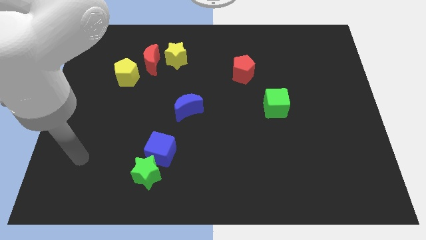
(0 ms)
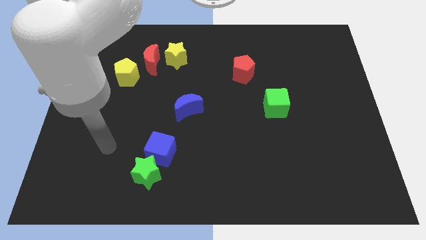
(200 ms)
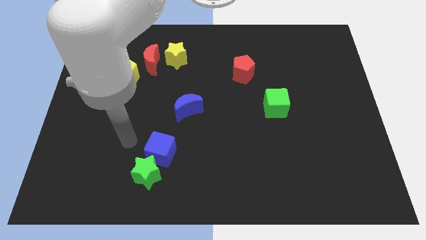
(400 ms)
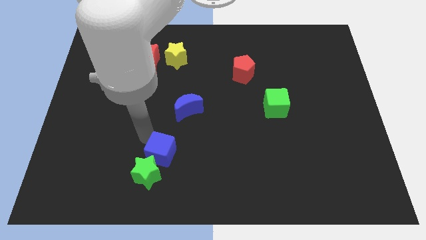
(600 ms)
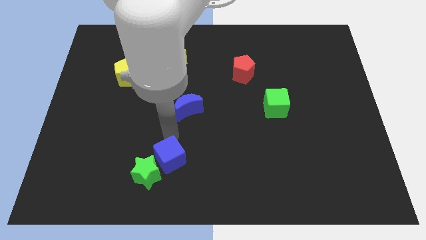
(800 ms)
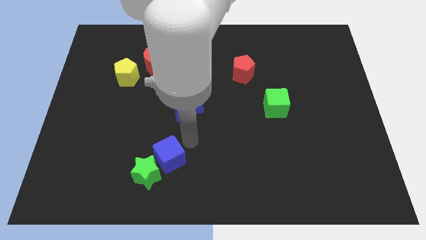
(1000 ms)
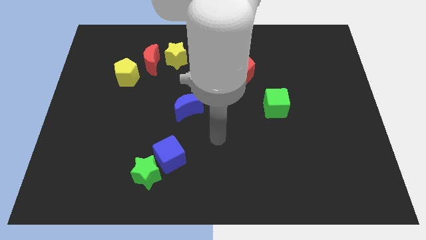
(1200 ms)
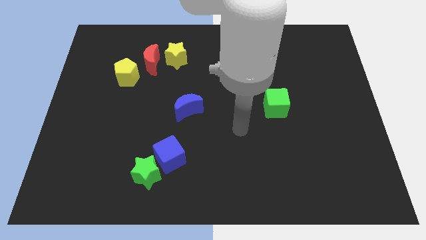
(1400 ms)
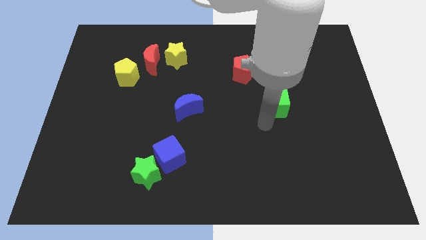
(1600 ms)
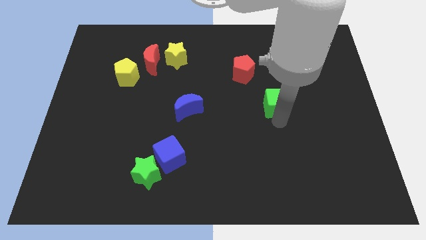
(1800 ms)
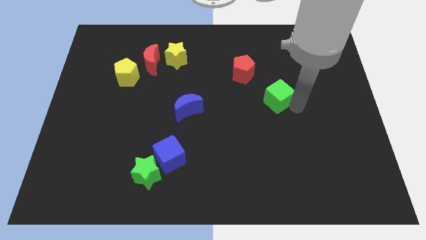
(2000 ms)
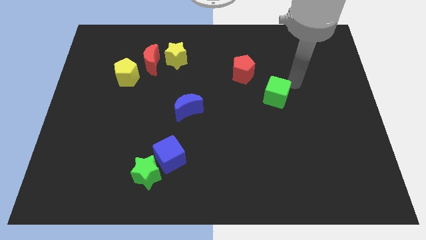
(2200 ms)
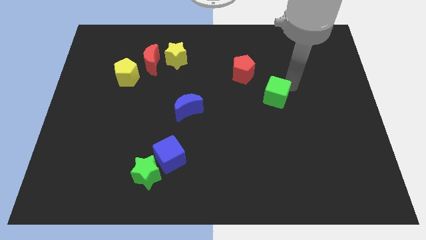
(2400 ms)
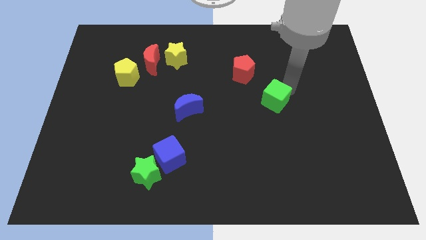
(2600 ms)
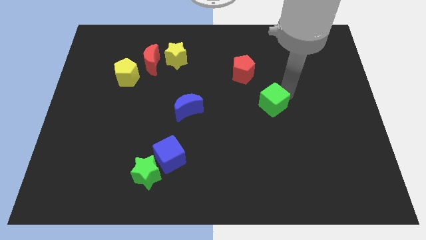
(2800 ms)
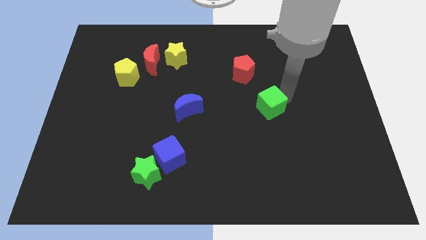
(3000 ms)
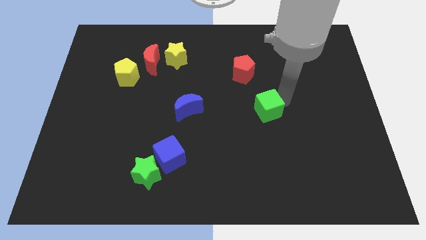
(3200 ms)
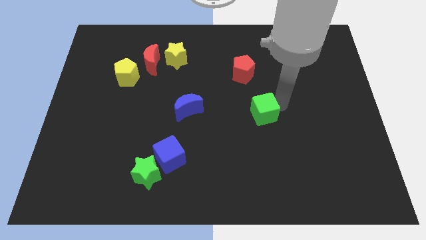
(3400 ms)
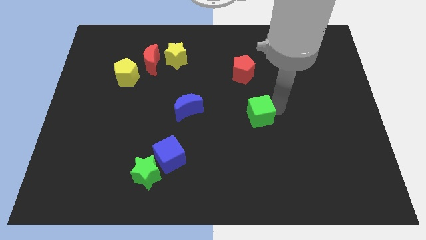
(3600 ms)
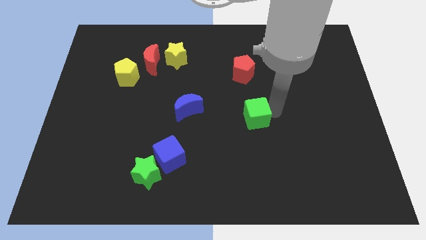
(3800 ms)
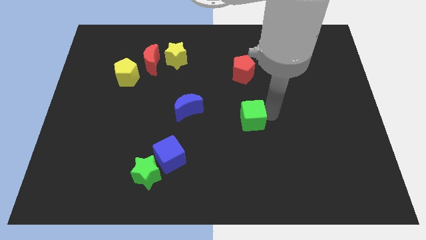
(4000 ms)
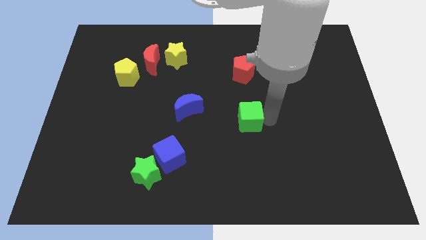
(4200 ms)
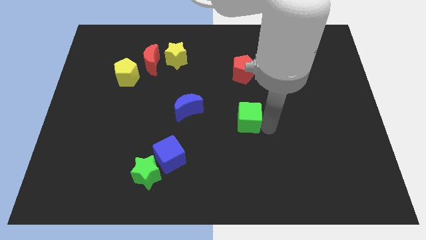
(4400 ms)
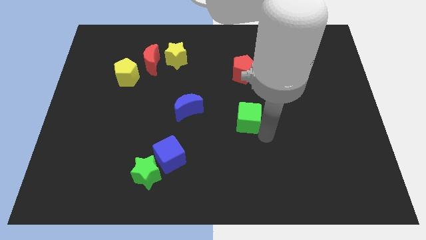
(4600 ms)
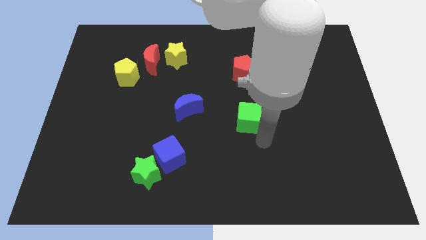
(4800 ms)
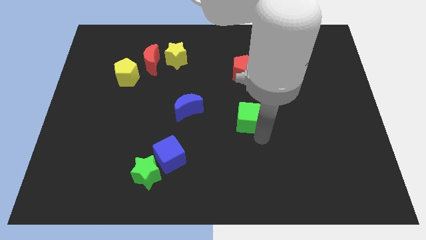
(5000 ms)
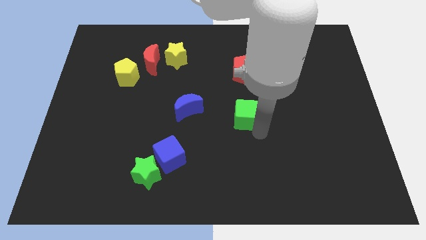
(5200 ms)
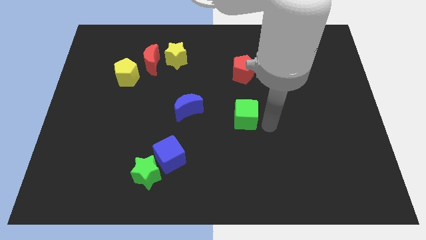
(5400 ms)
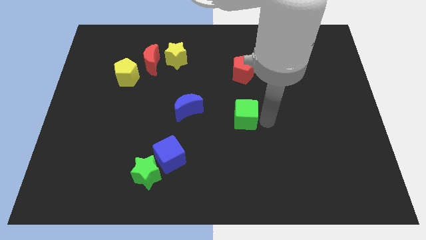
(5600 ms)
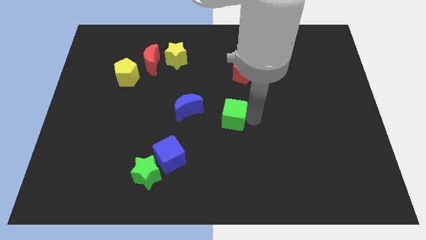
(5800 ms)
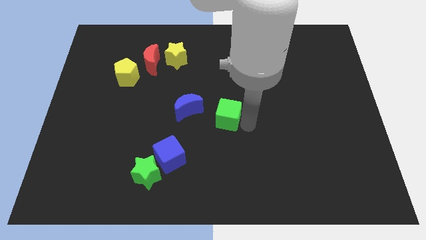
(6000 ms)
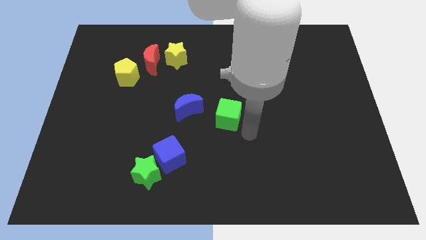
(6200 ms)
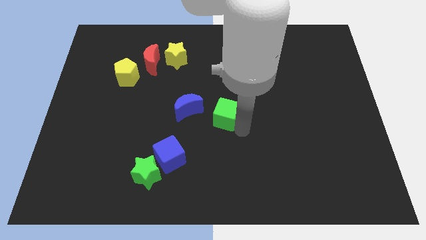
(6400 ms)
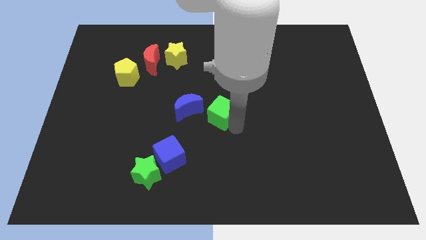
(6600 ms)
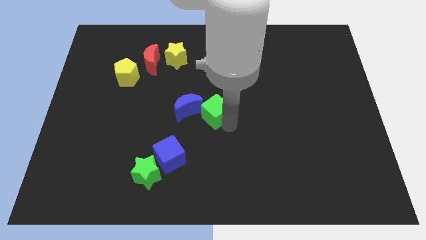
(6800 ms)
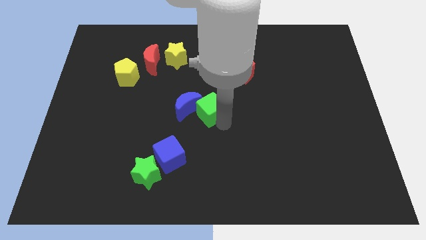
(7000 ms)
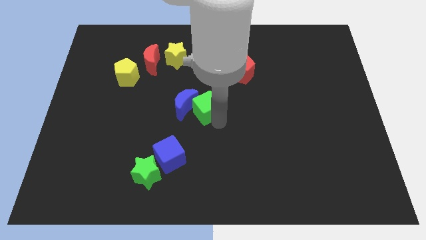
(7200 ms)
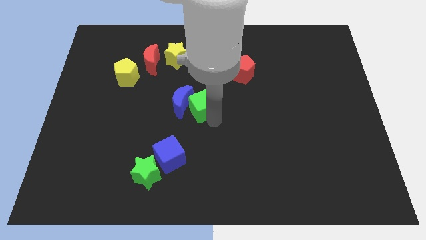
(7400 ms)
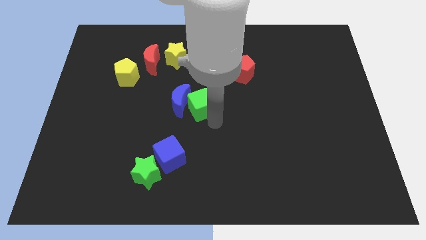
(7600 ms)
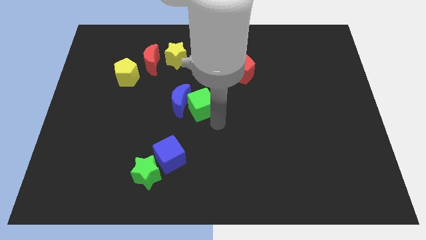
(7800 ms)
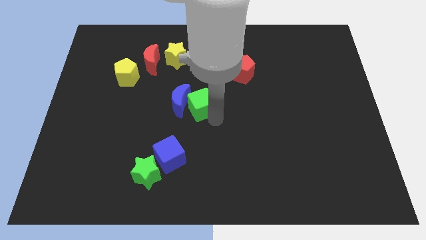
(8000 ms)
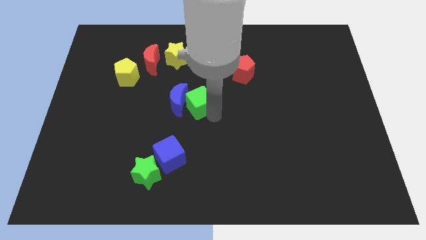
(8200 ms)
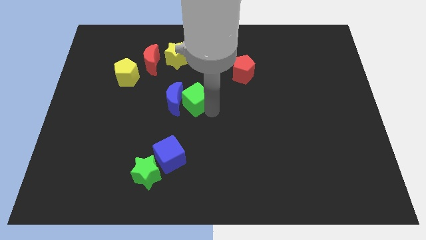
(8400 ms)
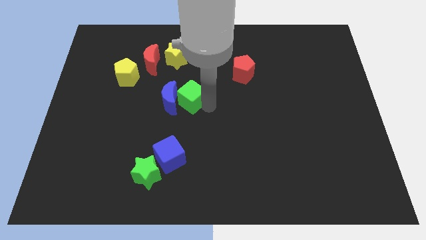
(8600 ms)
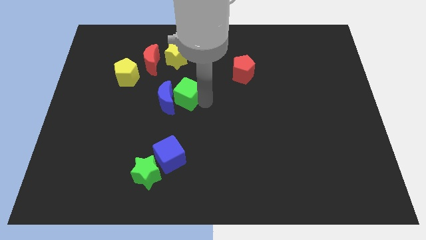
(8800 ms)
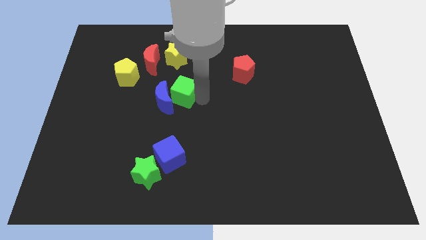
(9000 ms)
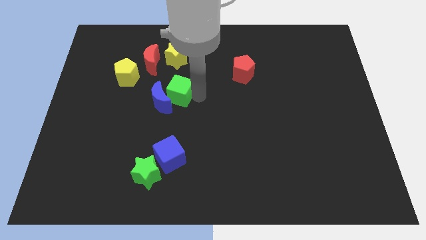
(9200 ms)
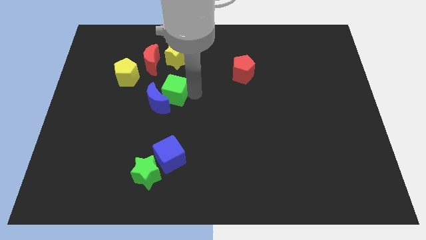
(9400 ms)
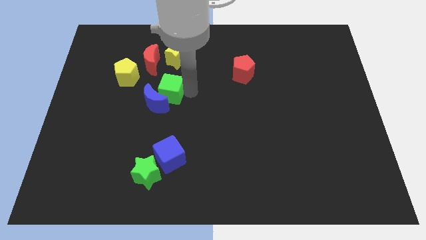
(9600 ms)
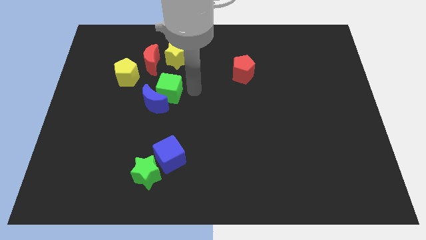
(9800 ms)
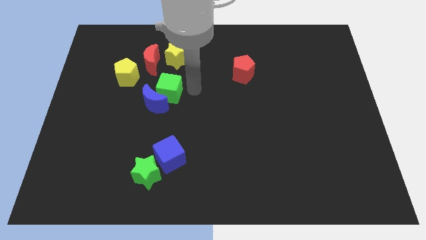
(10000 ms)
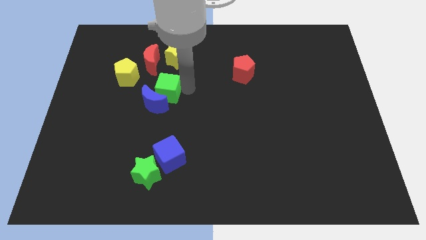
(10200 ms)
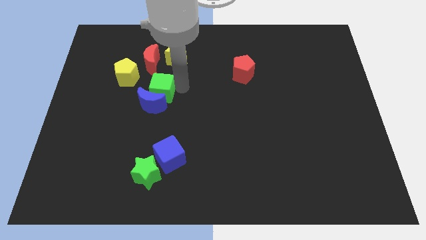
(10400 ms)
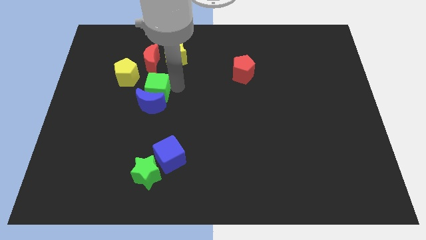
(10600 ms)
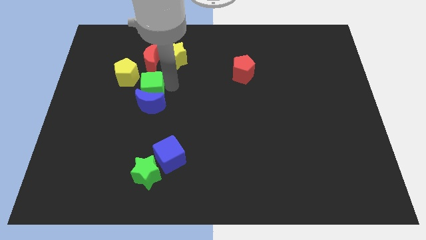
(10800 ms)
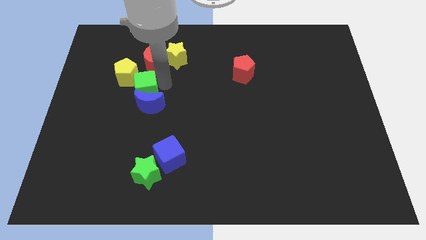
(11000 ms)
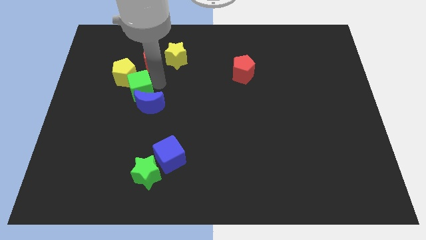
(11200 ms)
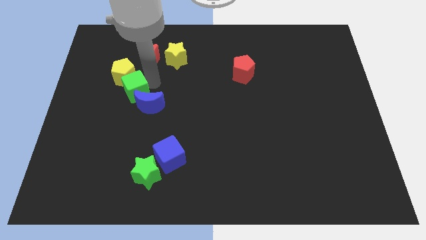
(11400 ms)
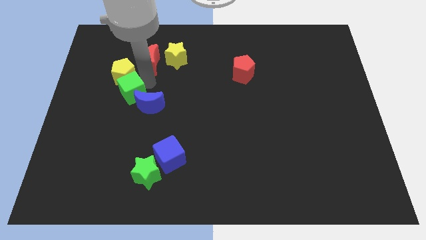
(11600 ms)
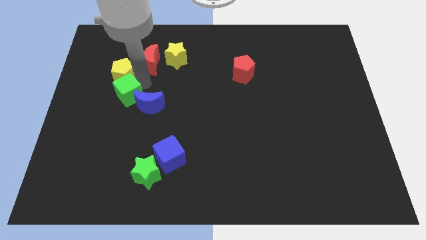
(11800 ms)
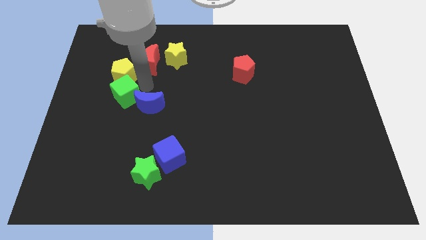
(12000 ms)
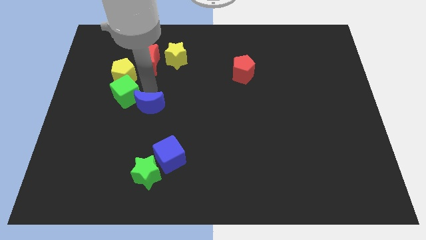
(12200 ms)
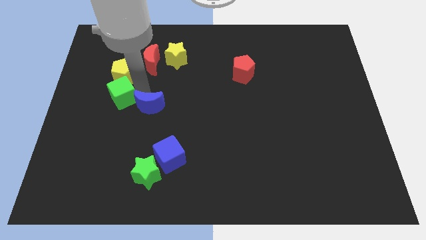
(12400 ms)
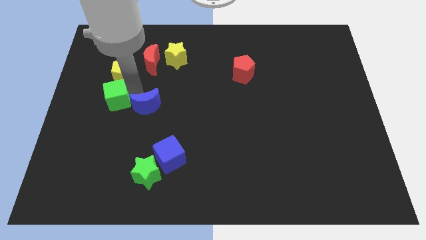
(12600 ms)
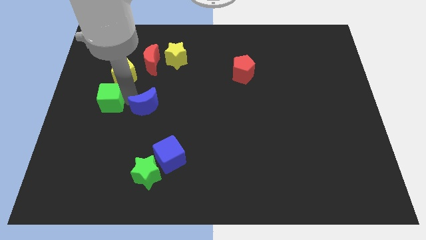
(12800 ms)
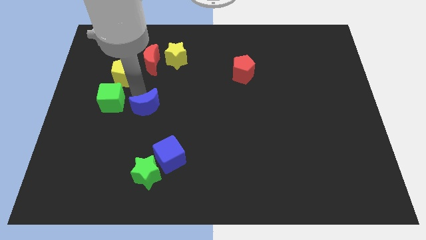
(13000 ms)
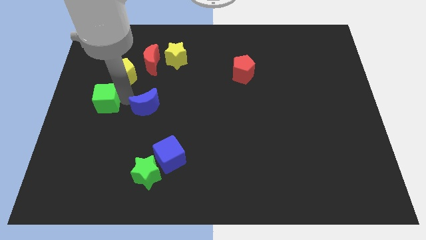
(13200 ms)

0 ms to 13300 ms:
move the green cube to the left side

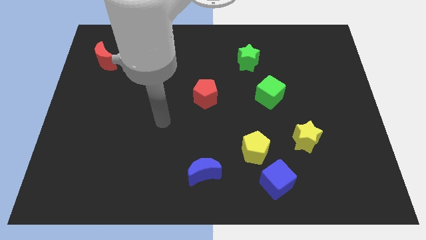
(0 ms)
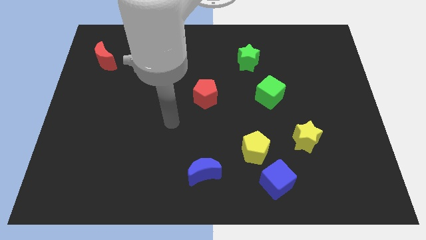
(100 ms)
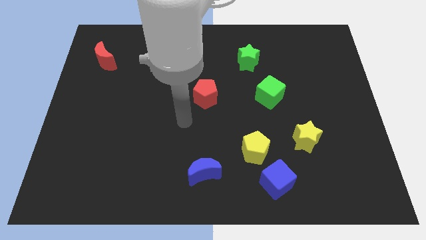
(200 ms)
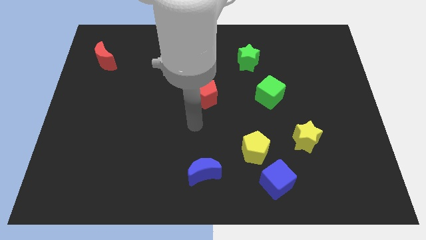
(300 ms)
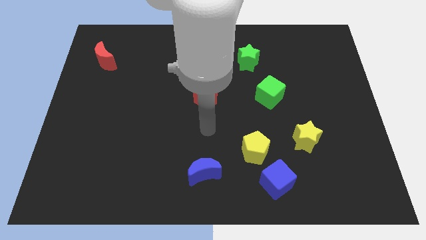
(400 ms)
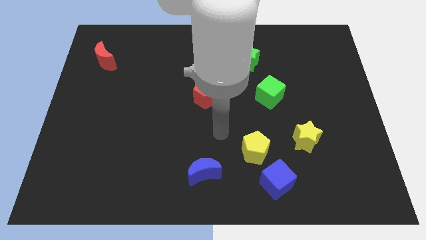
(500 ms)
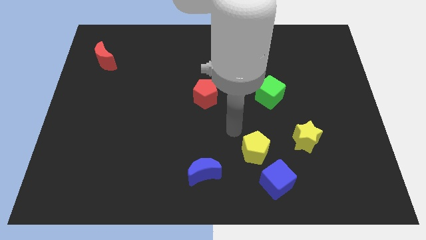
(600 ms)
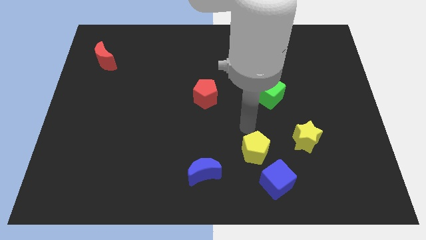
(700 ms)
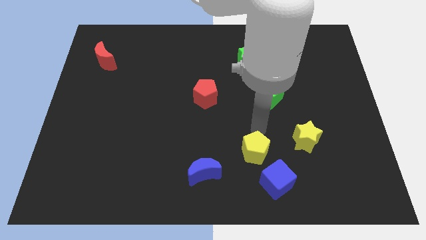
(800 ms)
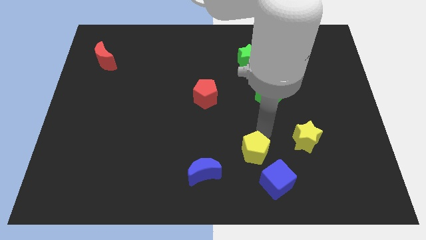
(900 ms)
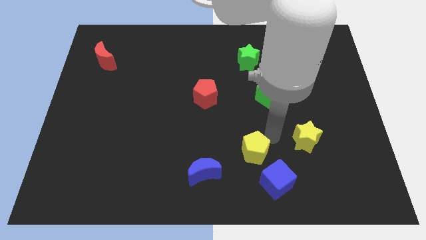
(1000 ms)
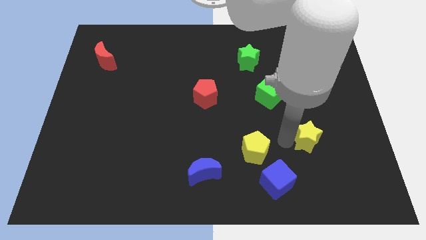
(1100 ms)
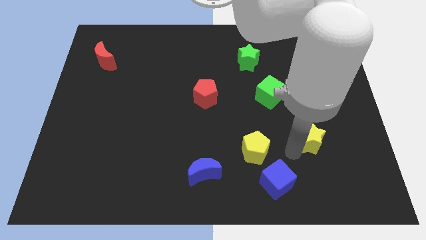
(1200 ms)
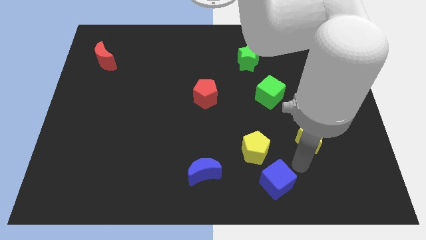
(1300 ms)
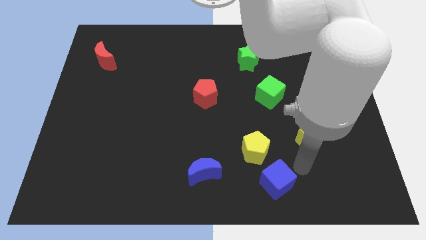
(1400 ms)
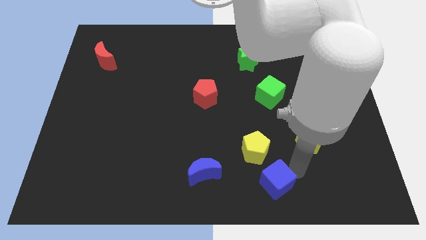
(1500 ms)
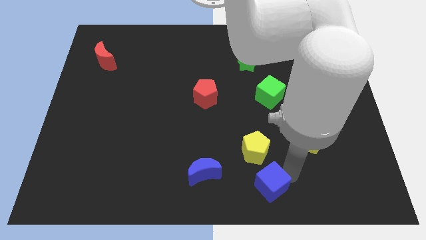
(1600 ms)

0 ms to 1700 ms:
put the blue cube to the bottom side
